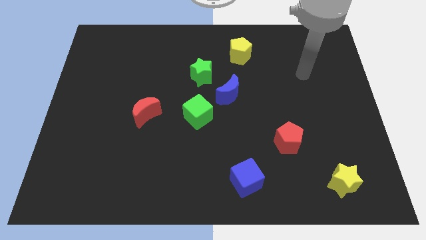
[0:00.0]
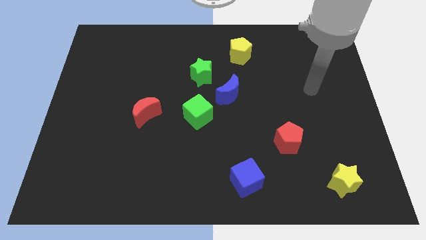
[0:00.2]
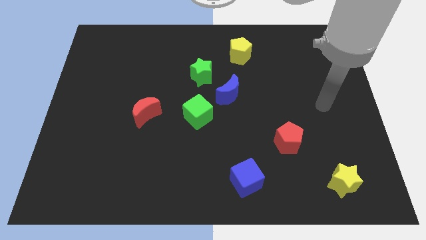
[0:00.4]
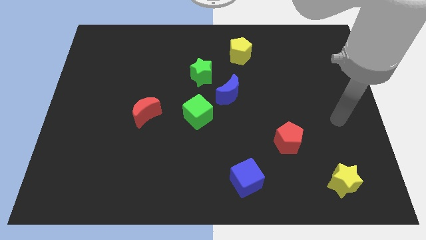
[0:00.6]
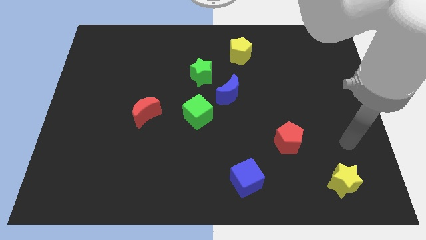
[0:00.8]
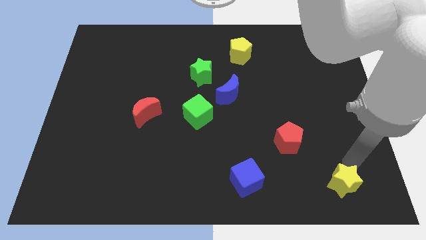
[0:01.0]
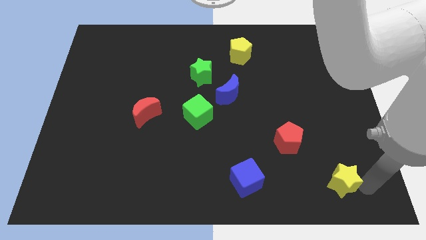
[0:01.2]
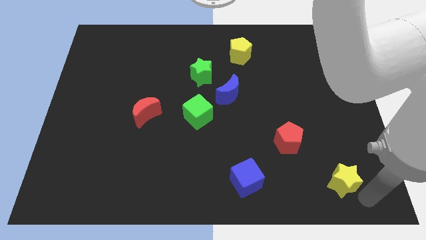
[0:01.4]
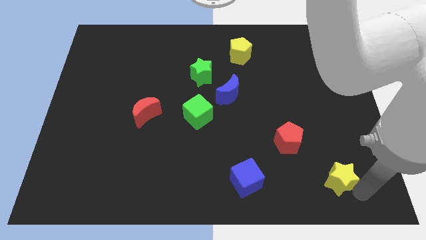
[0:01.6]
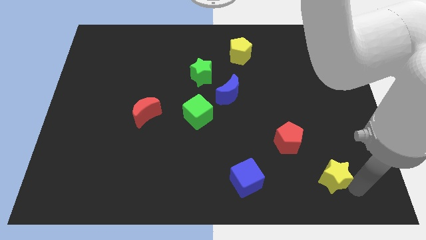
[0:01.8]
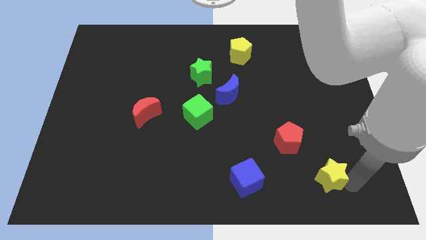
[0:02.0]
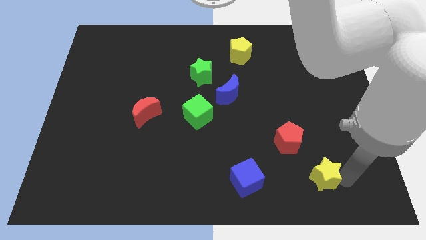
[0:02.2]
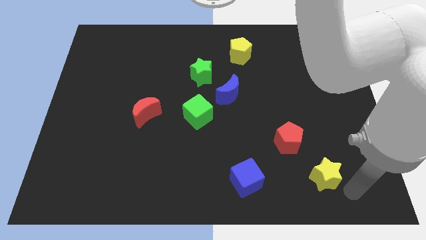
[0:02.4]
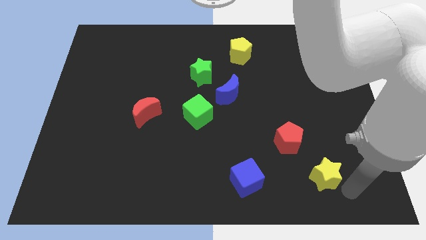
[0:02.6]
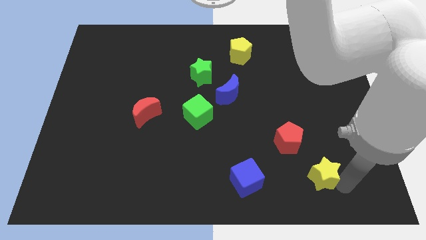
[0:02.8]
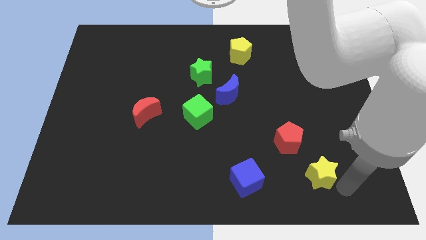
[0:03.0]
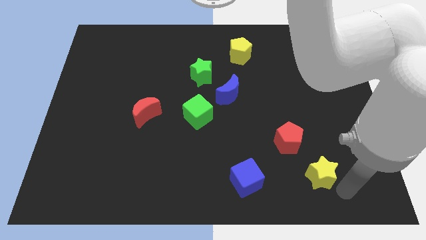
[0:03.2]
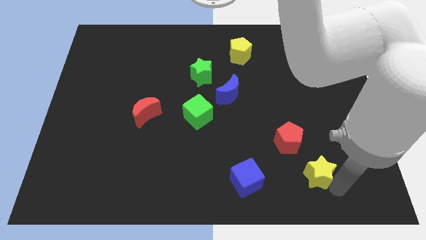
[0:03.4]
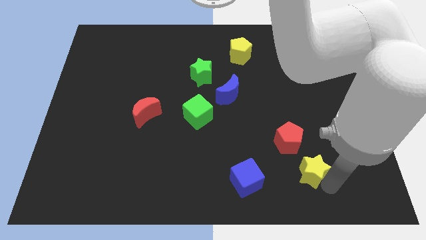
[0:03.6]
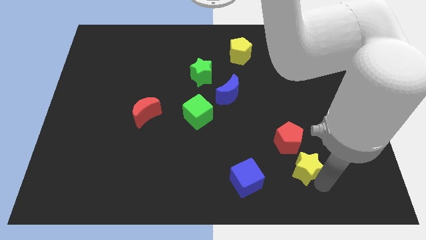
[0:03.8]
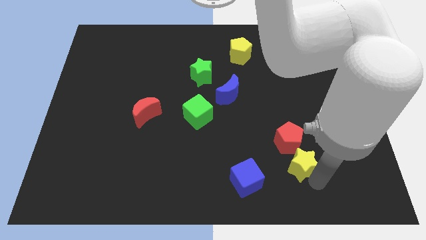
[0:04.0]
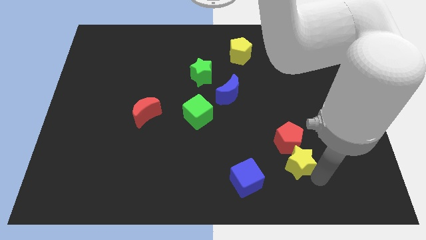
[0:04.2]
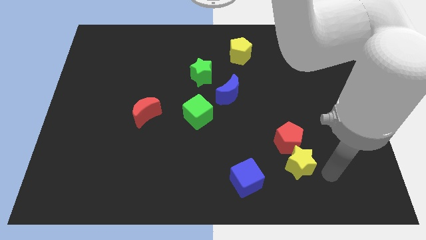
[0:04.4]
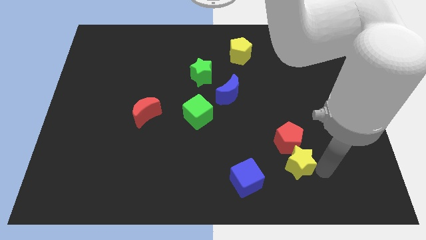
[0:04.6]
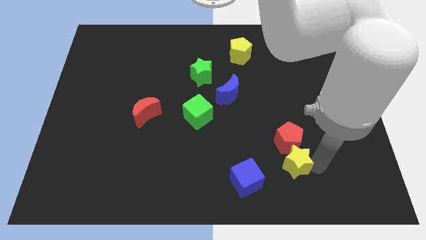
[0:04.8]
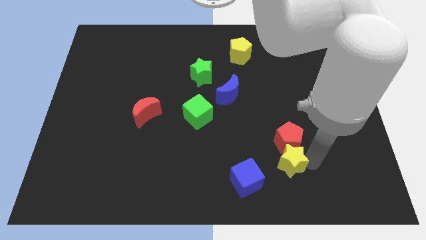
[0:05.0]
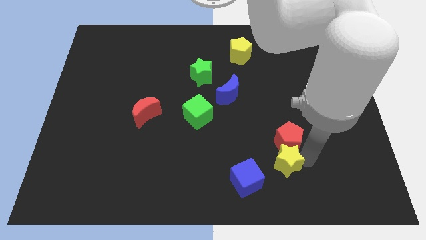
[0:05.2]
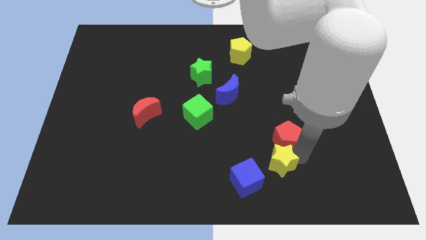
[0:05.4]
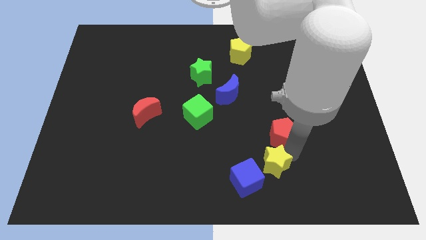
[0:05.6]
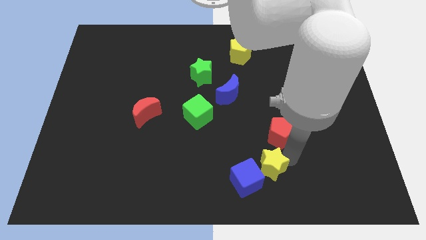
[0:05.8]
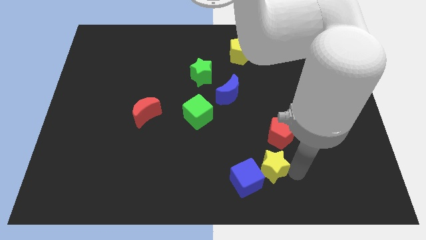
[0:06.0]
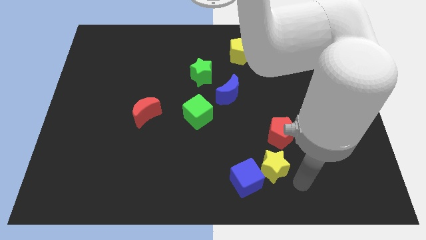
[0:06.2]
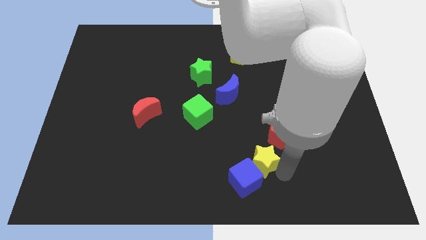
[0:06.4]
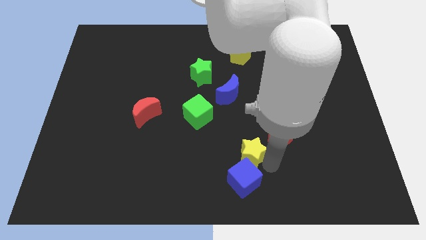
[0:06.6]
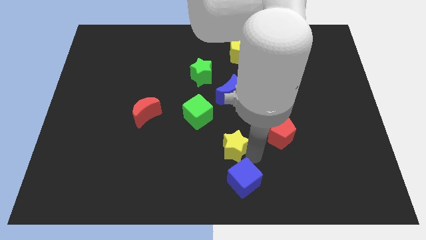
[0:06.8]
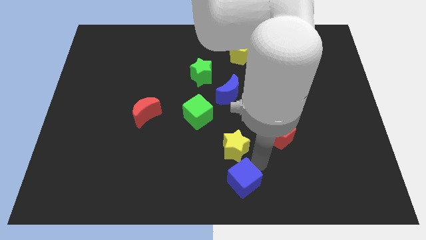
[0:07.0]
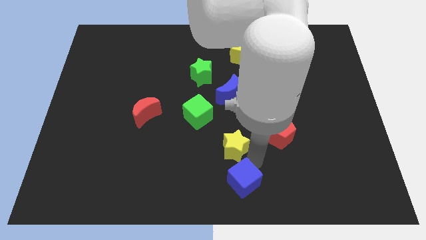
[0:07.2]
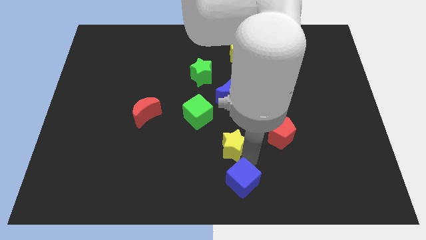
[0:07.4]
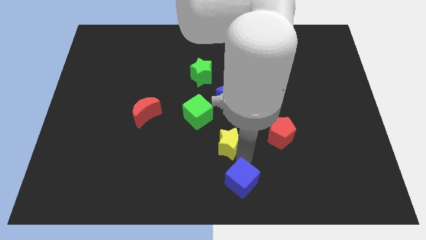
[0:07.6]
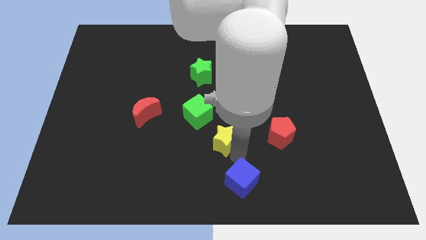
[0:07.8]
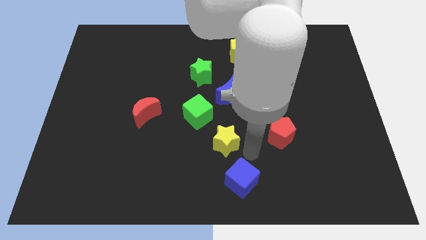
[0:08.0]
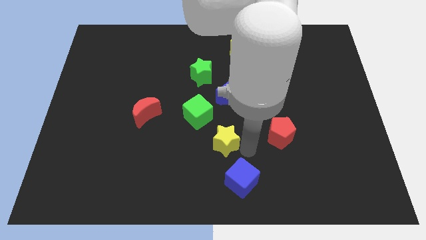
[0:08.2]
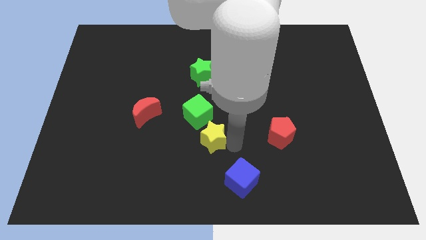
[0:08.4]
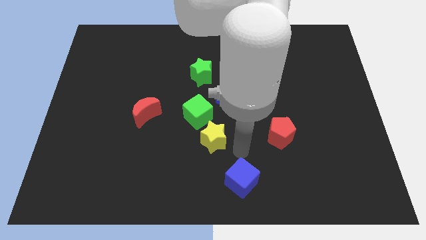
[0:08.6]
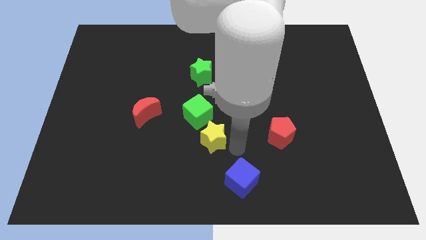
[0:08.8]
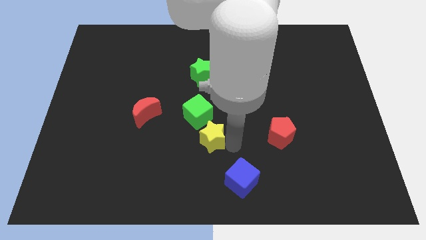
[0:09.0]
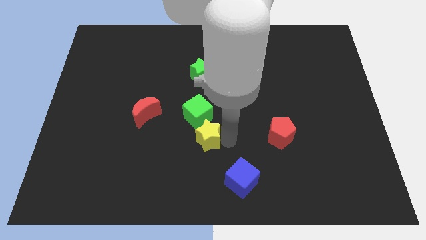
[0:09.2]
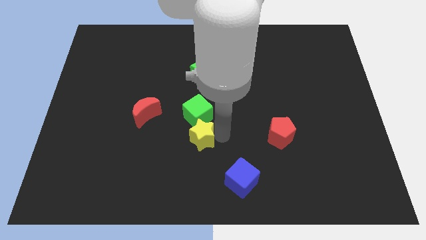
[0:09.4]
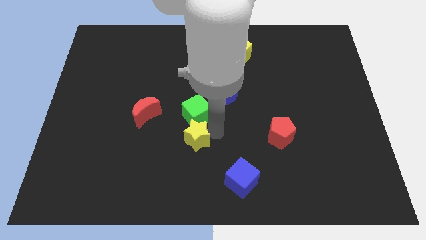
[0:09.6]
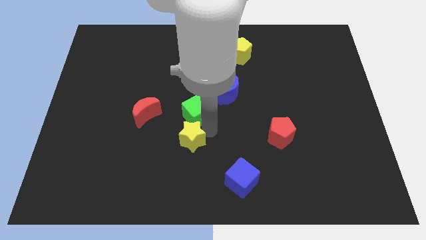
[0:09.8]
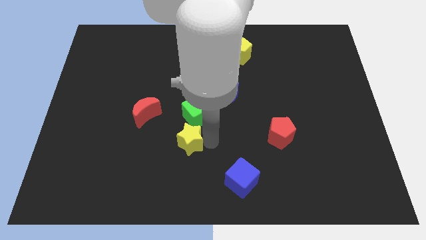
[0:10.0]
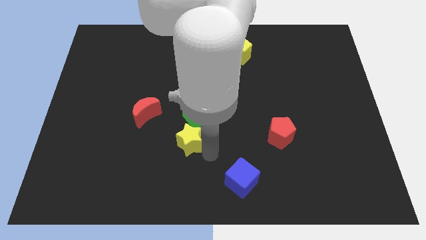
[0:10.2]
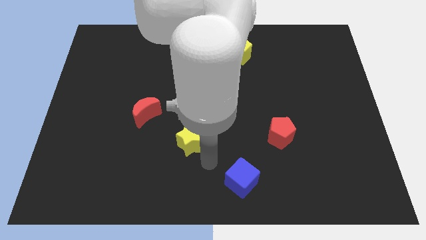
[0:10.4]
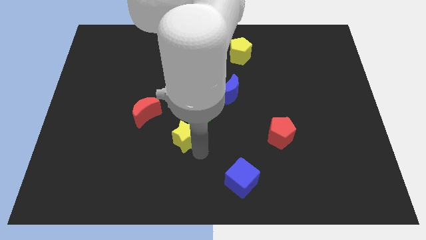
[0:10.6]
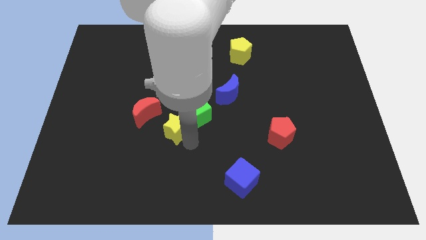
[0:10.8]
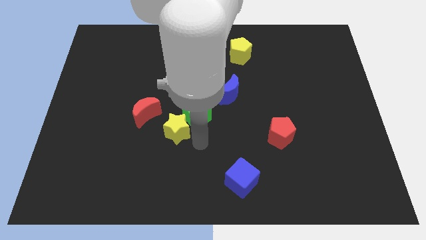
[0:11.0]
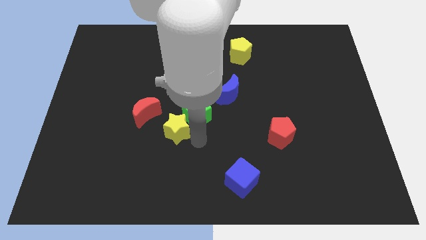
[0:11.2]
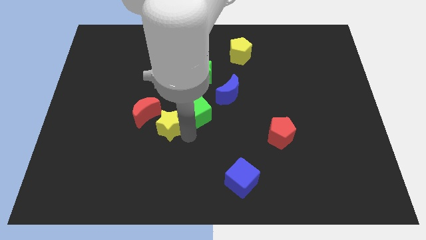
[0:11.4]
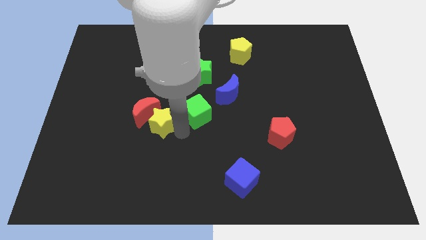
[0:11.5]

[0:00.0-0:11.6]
put the yellow star next to the red moon

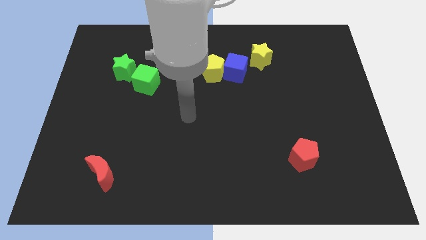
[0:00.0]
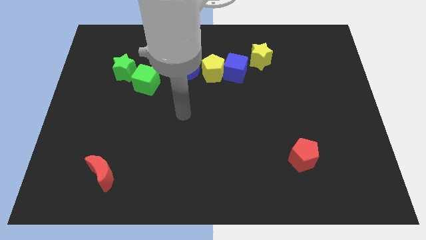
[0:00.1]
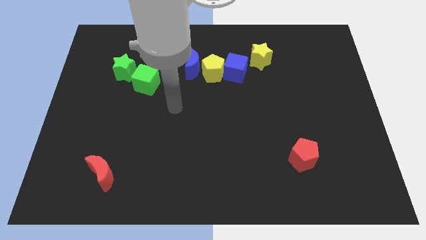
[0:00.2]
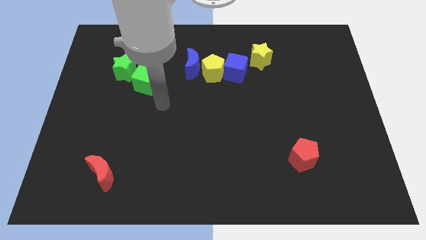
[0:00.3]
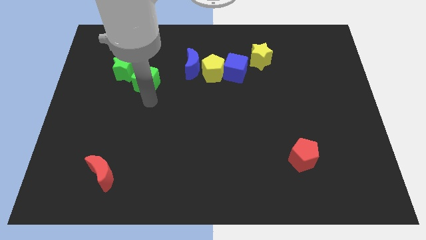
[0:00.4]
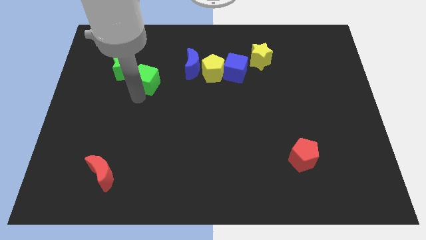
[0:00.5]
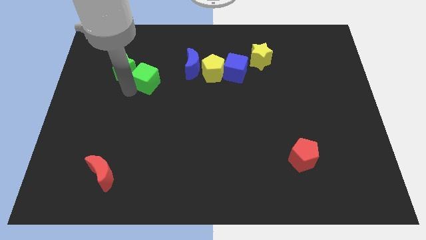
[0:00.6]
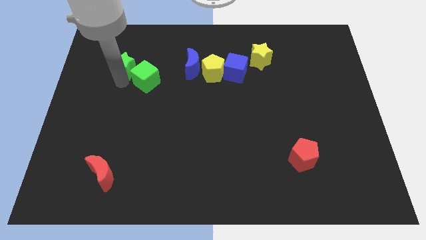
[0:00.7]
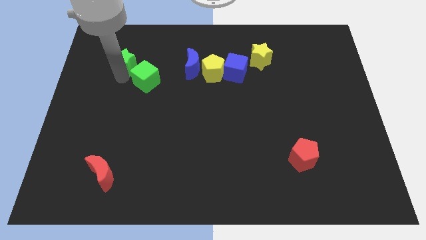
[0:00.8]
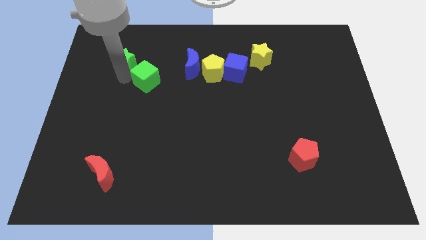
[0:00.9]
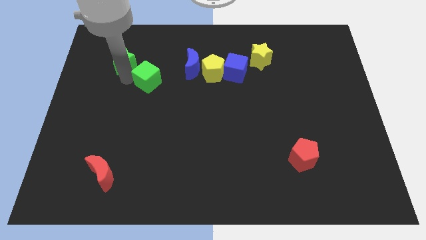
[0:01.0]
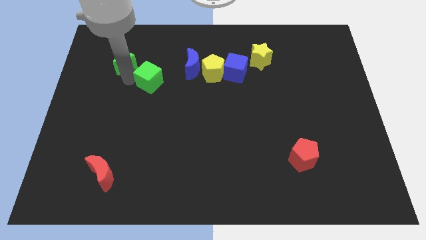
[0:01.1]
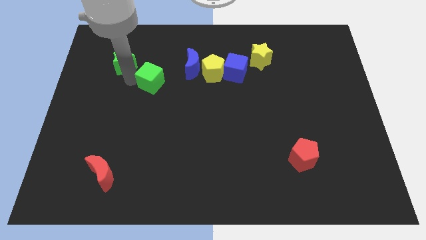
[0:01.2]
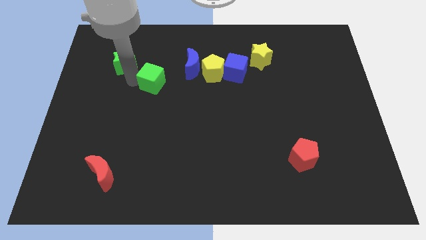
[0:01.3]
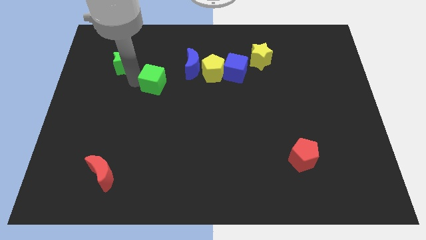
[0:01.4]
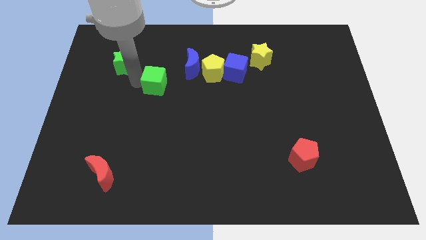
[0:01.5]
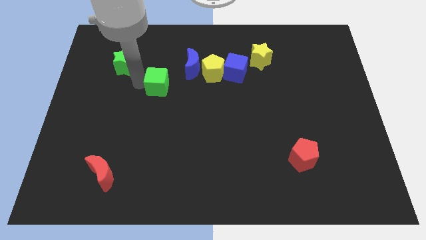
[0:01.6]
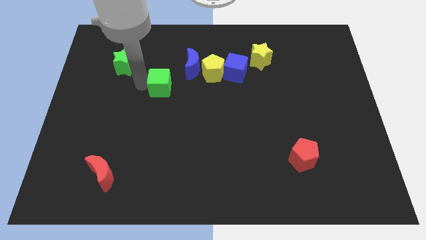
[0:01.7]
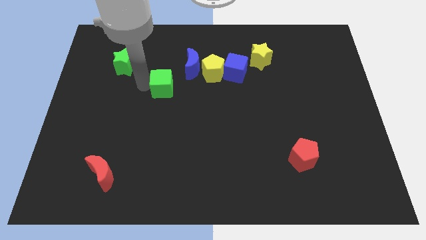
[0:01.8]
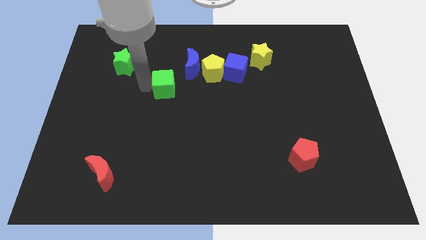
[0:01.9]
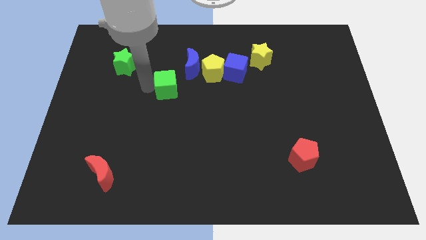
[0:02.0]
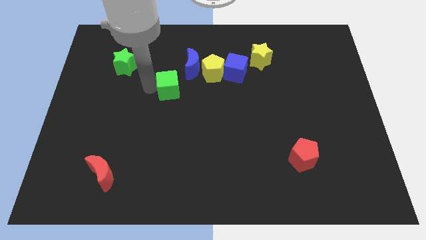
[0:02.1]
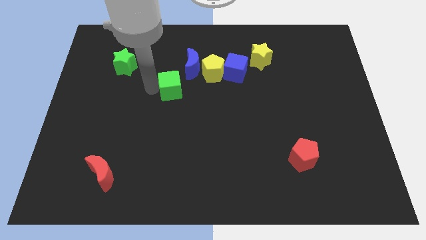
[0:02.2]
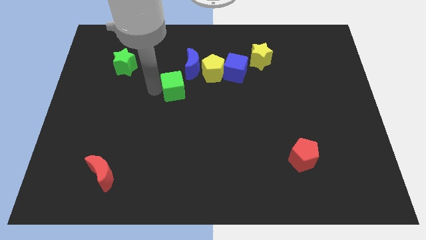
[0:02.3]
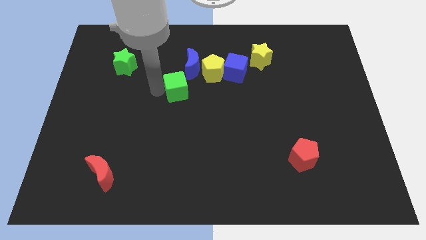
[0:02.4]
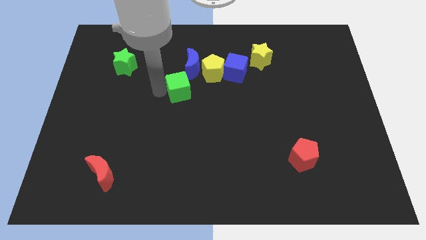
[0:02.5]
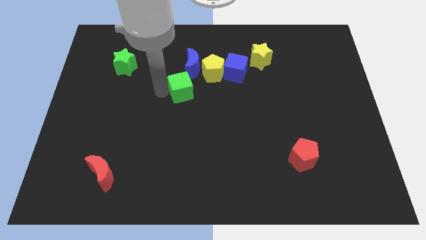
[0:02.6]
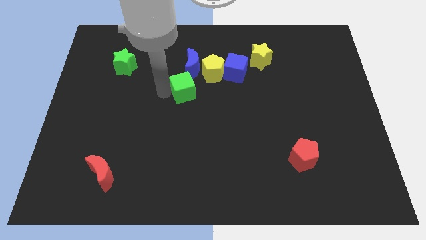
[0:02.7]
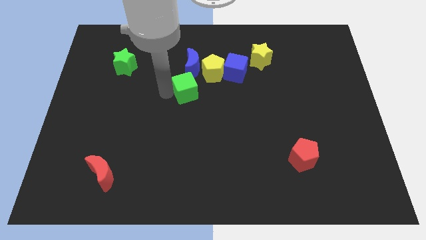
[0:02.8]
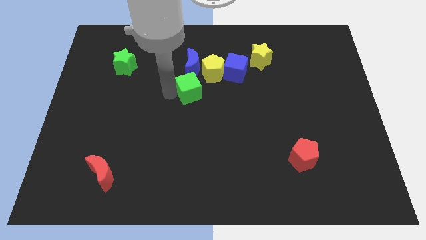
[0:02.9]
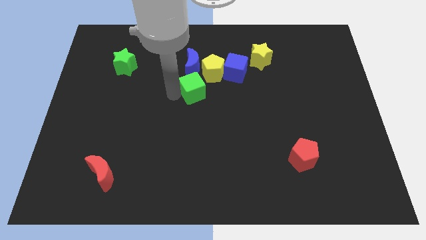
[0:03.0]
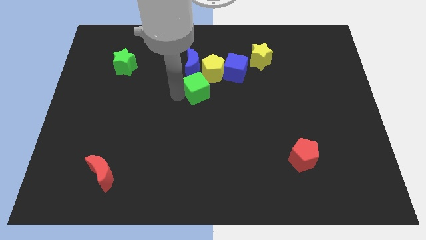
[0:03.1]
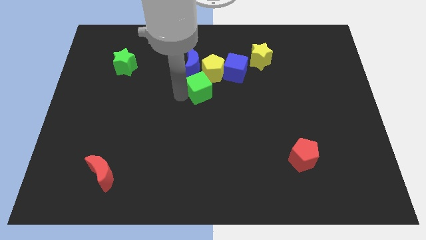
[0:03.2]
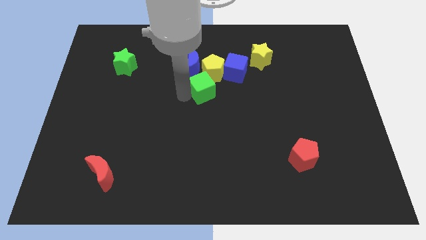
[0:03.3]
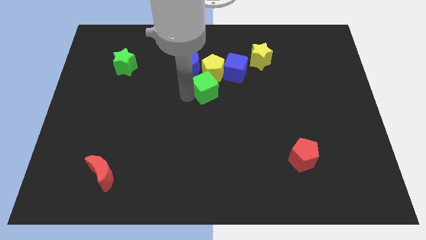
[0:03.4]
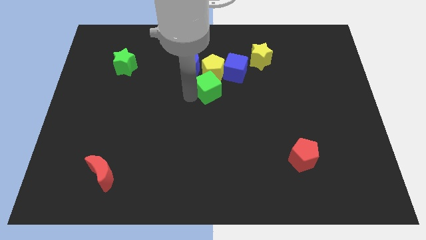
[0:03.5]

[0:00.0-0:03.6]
move the green cube next to the yellow pentagon
